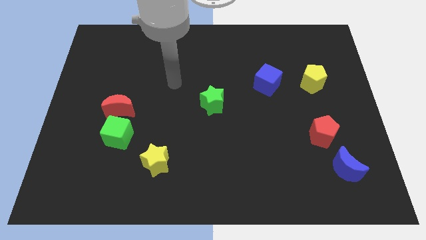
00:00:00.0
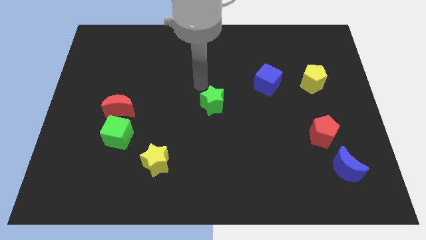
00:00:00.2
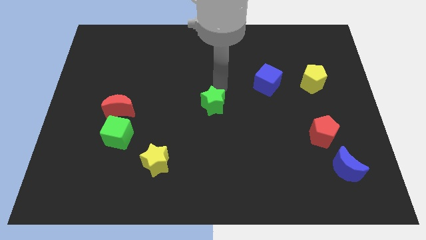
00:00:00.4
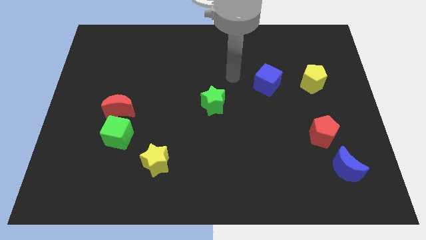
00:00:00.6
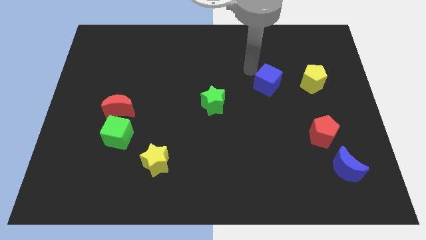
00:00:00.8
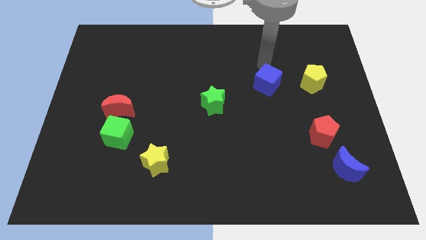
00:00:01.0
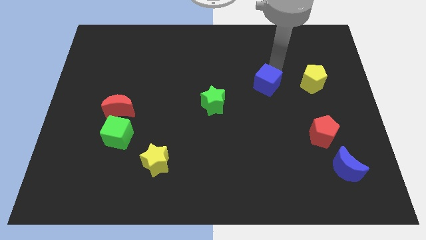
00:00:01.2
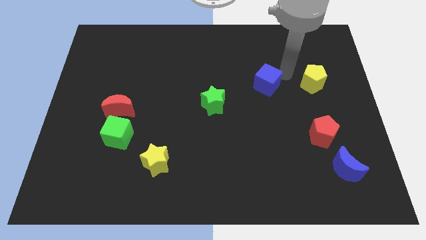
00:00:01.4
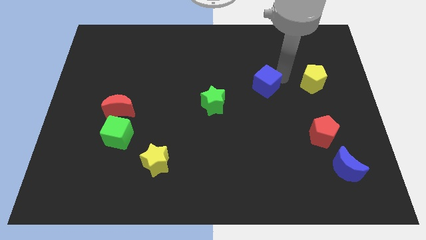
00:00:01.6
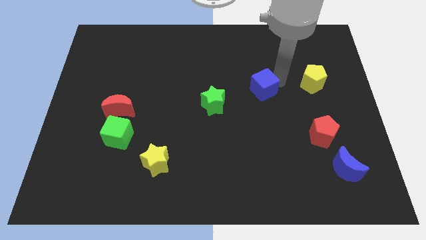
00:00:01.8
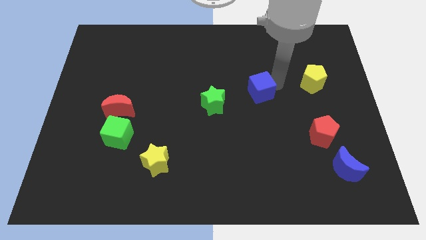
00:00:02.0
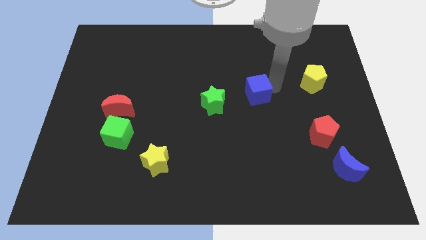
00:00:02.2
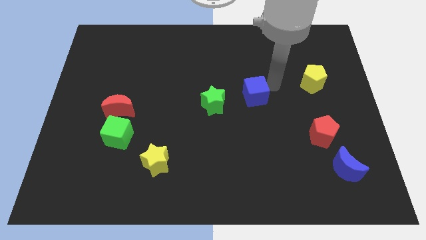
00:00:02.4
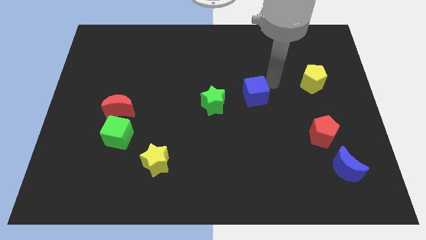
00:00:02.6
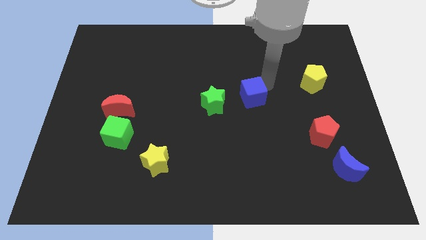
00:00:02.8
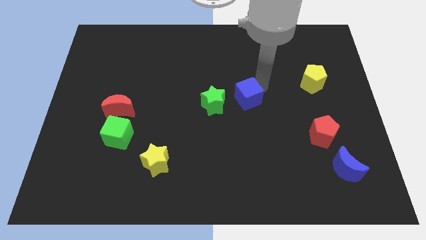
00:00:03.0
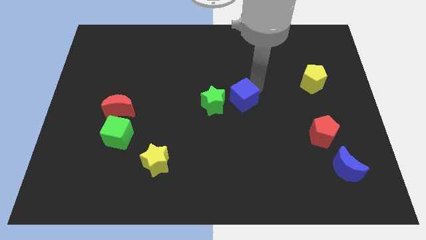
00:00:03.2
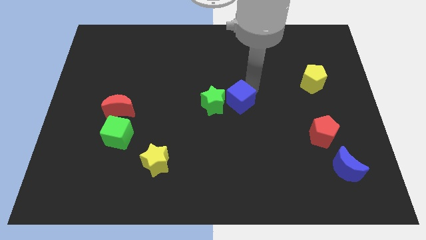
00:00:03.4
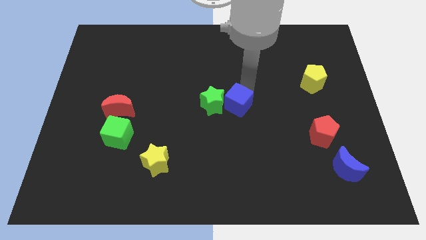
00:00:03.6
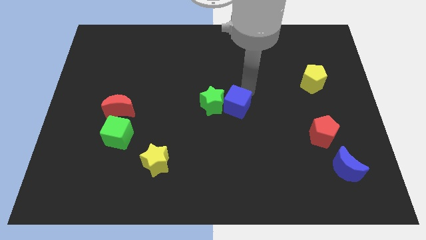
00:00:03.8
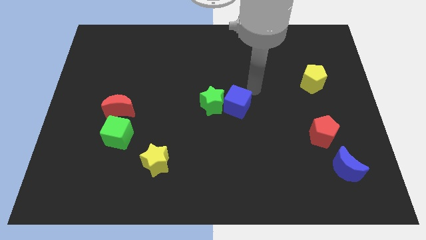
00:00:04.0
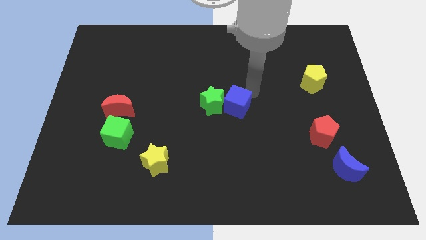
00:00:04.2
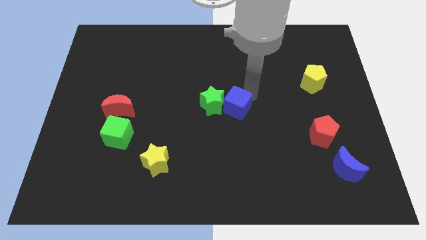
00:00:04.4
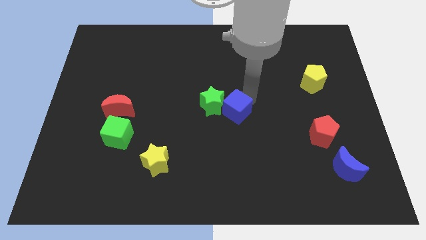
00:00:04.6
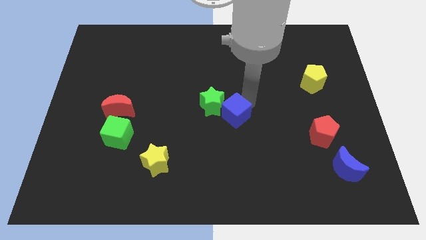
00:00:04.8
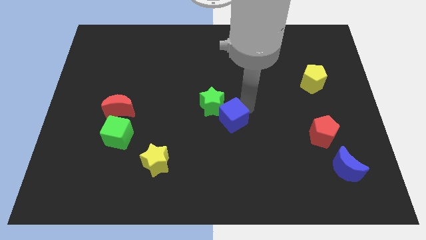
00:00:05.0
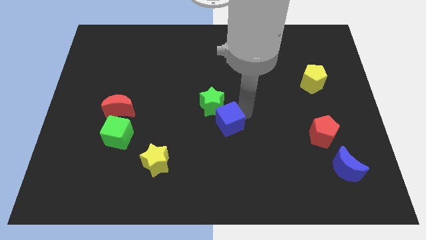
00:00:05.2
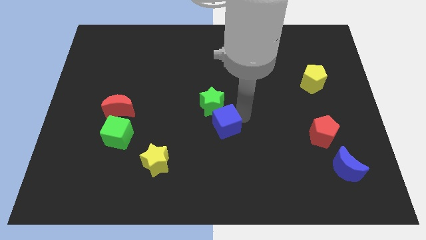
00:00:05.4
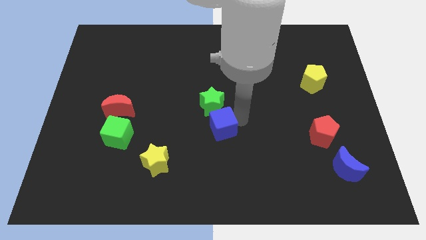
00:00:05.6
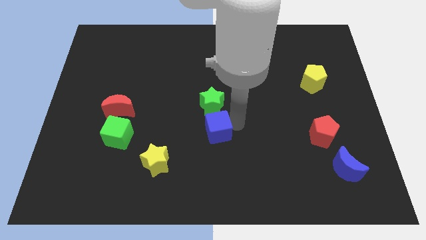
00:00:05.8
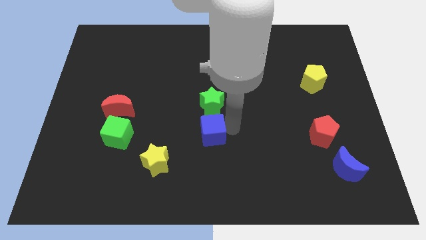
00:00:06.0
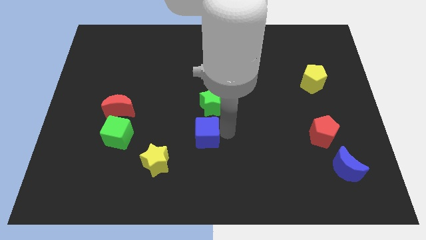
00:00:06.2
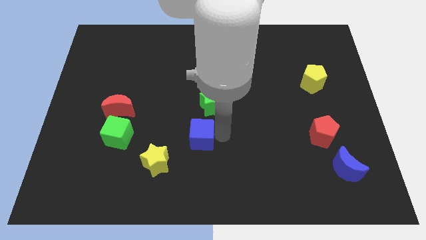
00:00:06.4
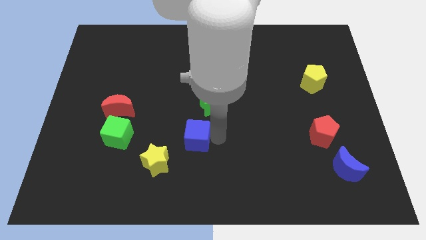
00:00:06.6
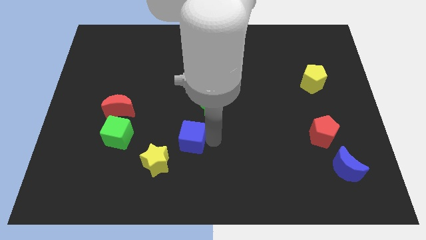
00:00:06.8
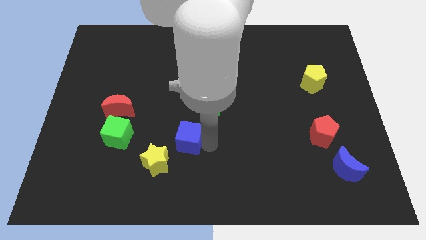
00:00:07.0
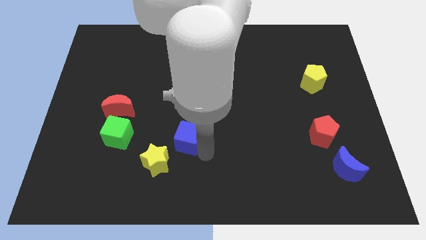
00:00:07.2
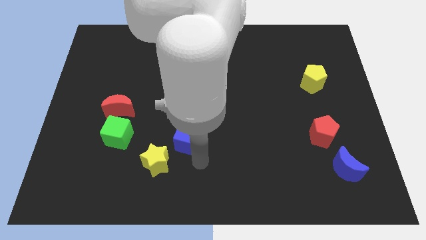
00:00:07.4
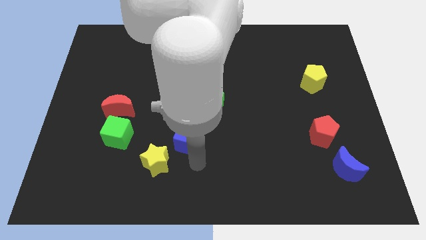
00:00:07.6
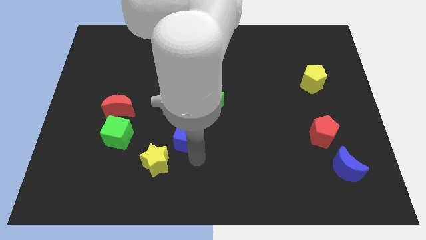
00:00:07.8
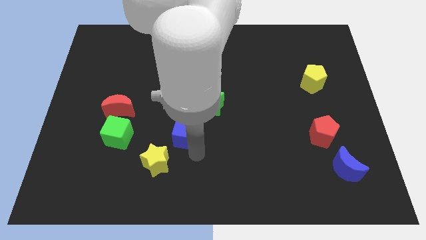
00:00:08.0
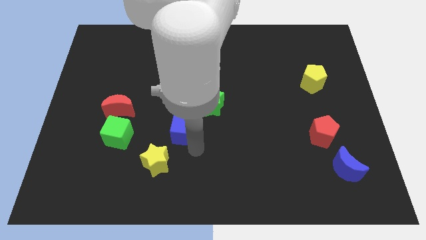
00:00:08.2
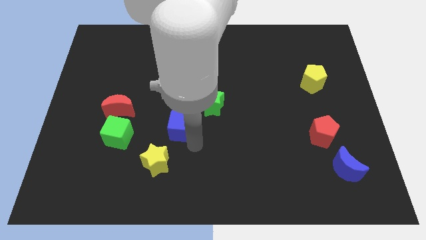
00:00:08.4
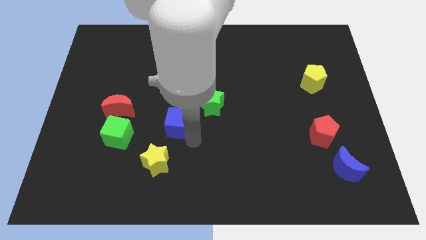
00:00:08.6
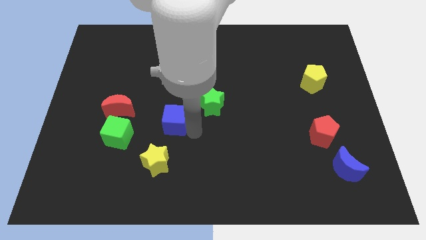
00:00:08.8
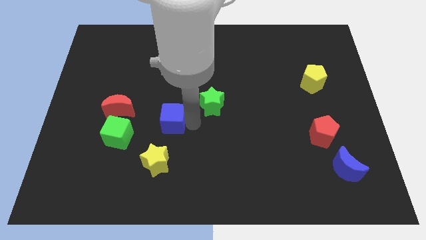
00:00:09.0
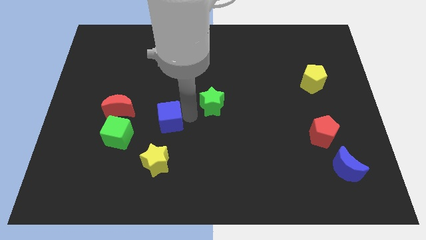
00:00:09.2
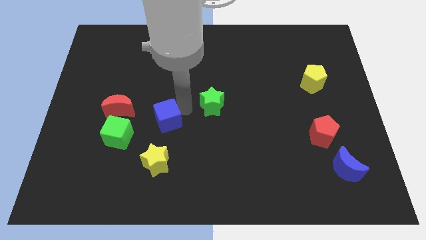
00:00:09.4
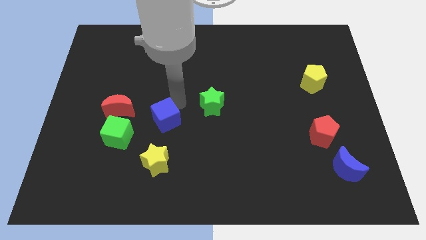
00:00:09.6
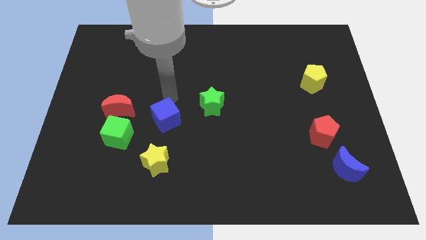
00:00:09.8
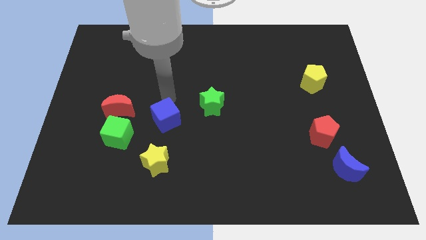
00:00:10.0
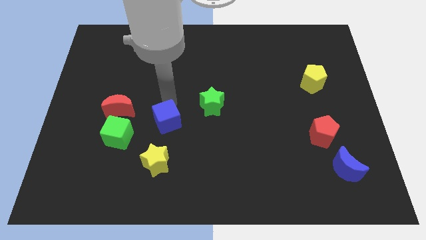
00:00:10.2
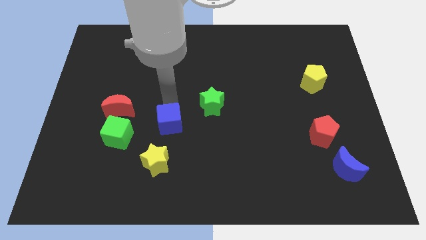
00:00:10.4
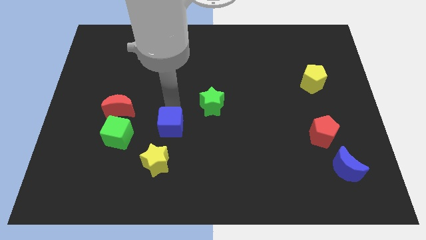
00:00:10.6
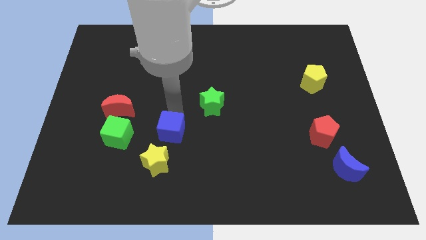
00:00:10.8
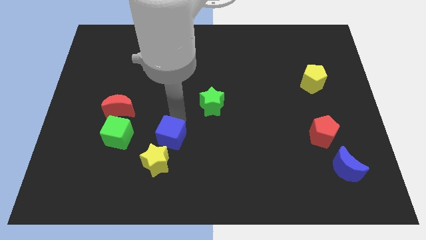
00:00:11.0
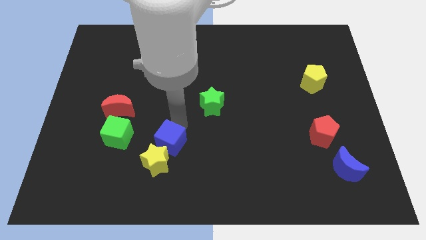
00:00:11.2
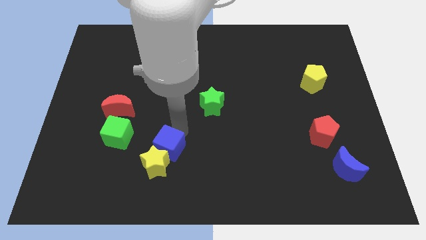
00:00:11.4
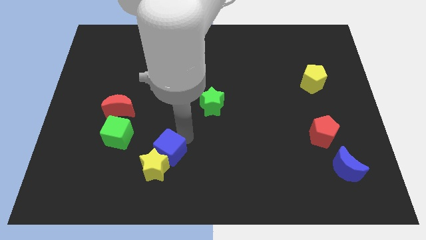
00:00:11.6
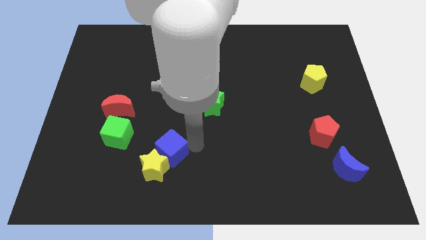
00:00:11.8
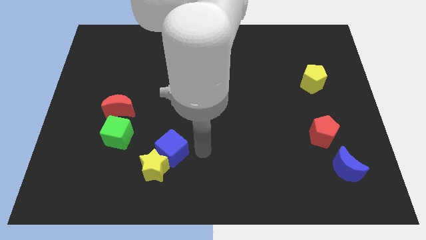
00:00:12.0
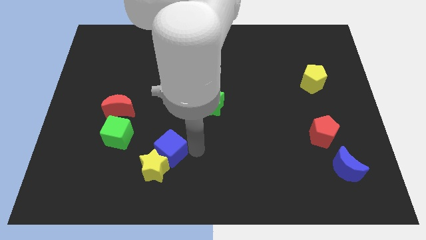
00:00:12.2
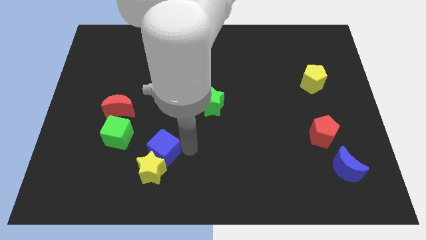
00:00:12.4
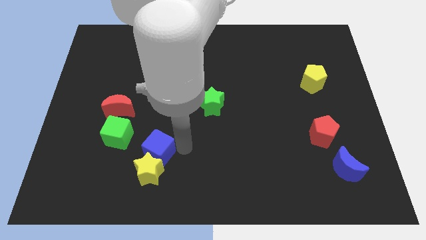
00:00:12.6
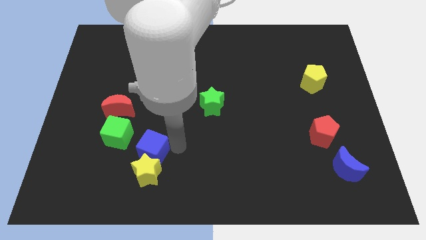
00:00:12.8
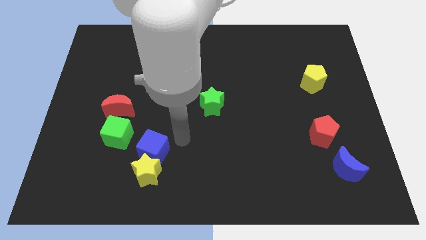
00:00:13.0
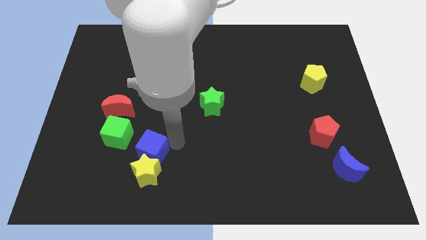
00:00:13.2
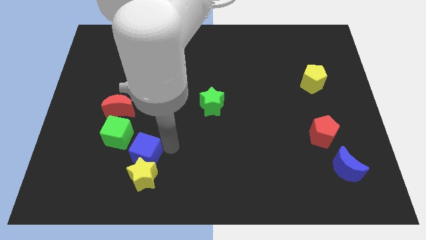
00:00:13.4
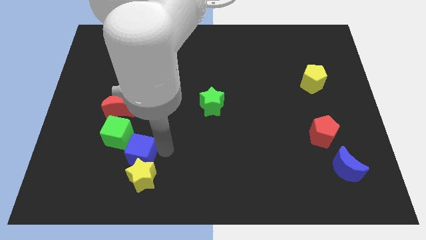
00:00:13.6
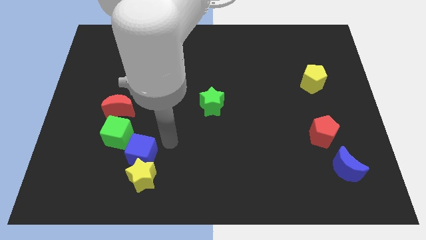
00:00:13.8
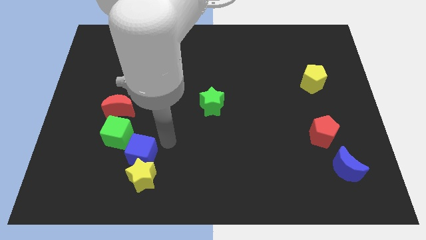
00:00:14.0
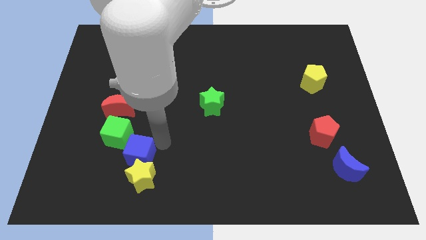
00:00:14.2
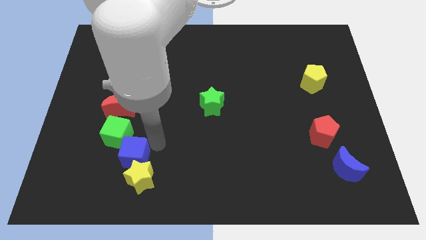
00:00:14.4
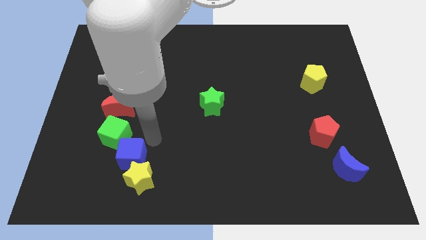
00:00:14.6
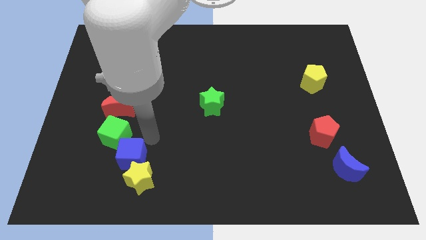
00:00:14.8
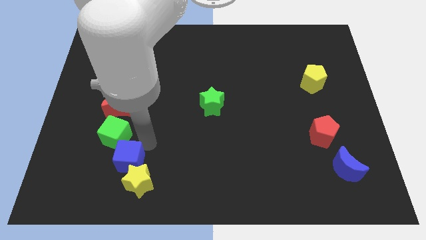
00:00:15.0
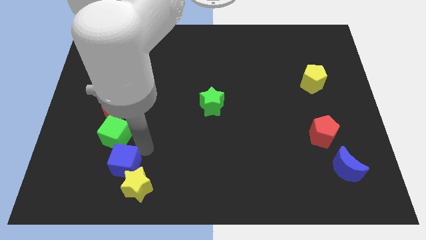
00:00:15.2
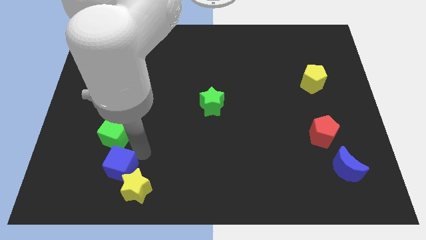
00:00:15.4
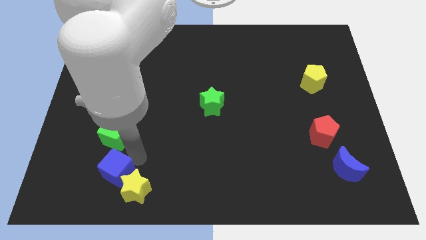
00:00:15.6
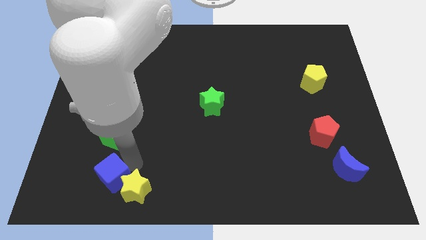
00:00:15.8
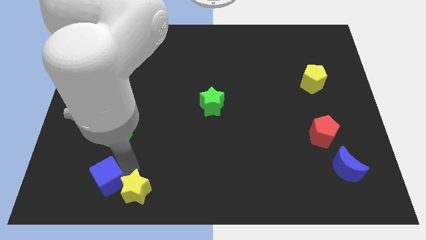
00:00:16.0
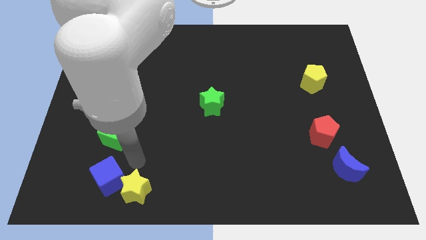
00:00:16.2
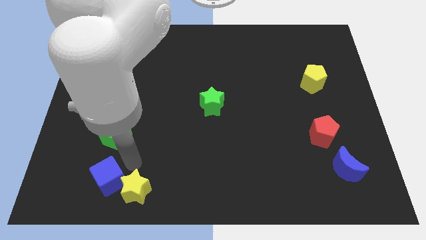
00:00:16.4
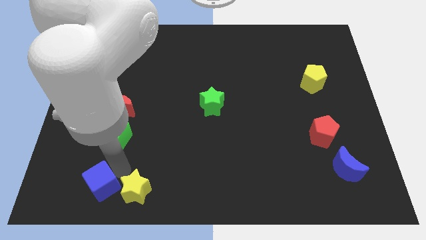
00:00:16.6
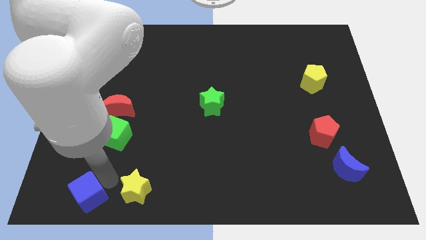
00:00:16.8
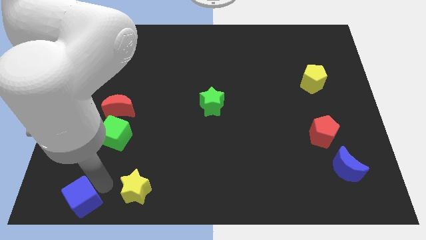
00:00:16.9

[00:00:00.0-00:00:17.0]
put the blue cube to the bottom left of the board
